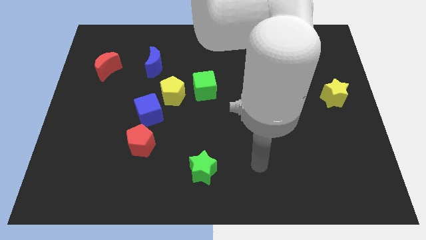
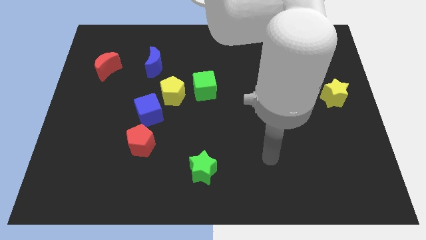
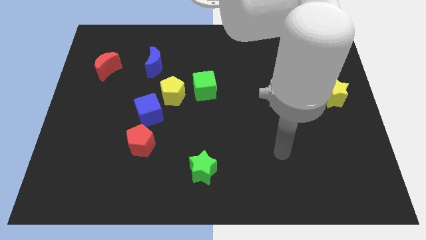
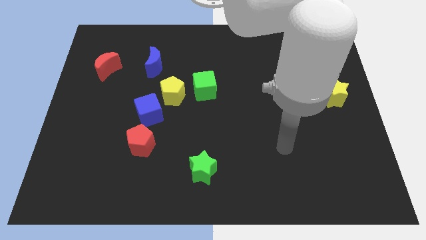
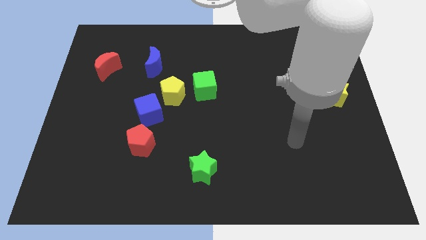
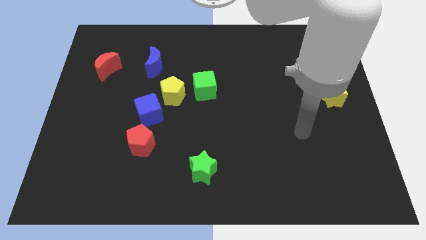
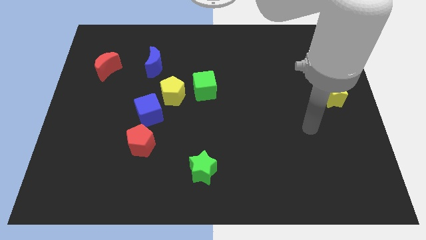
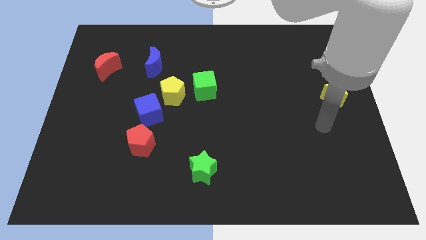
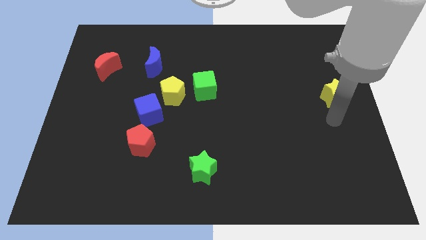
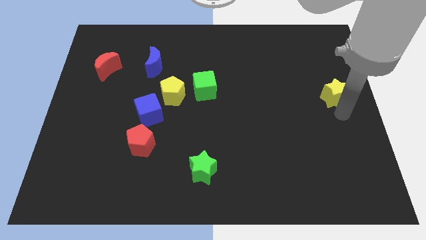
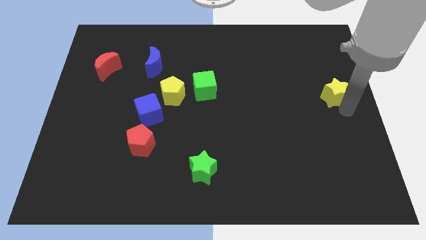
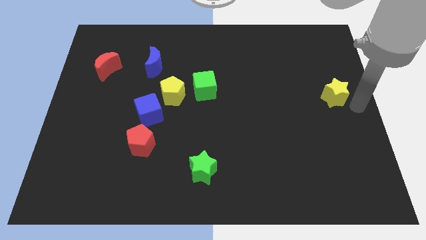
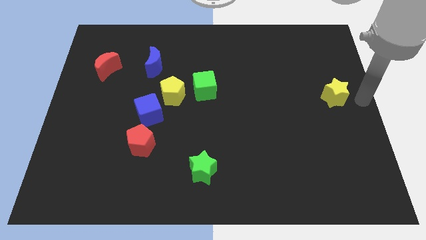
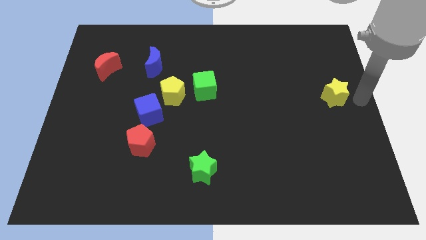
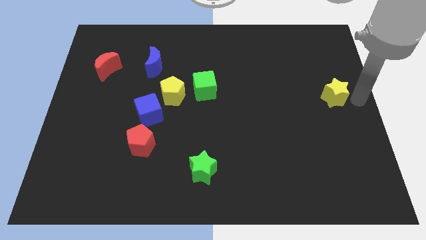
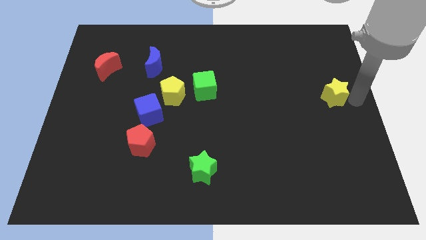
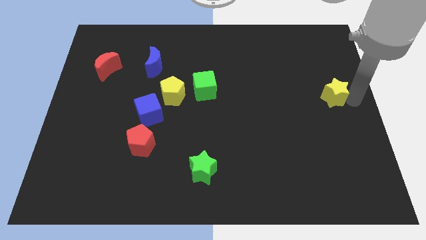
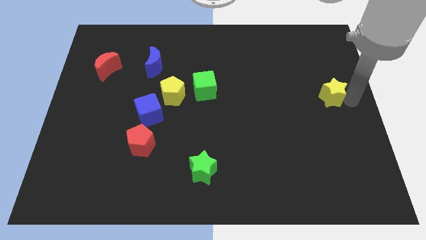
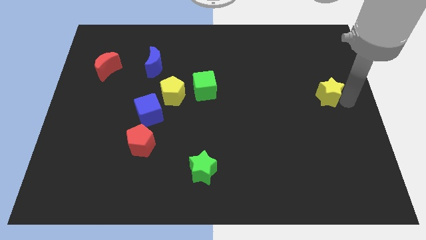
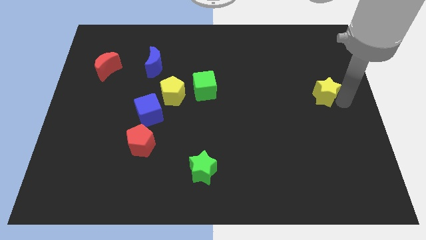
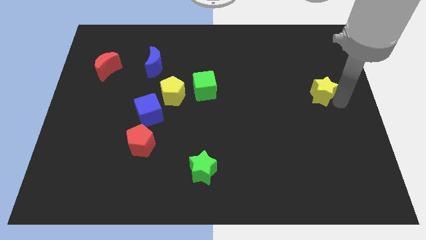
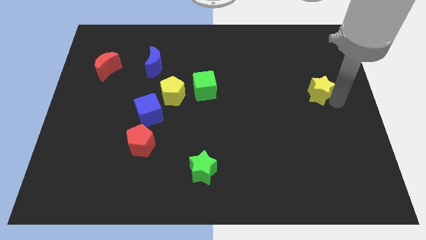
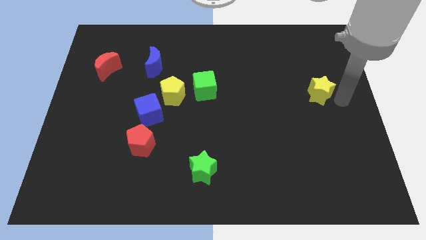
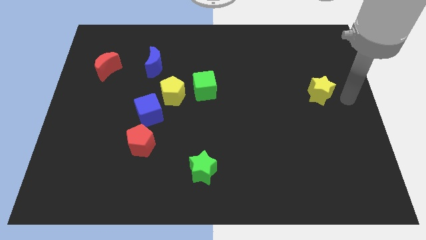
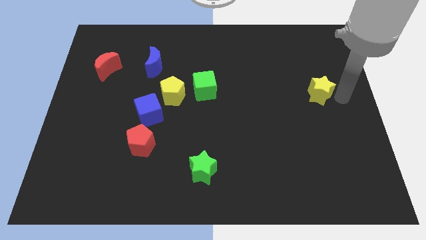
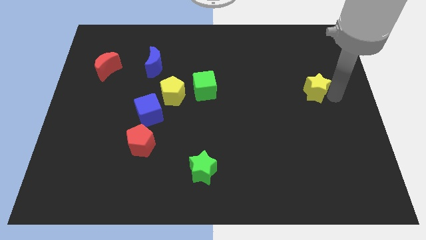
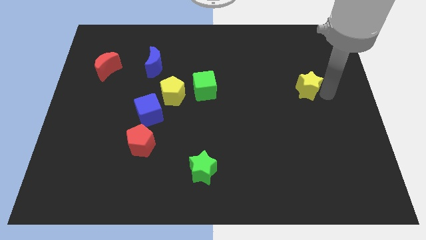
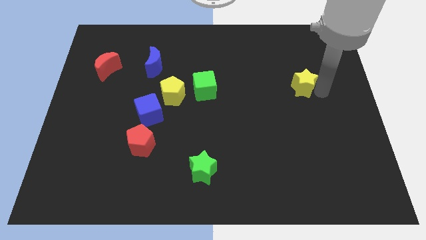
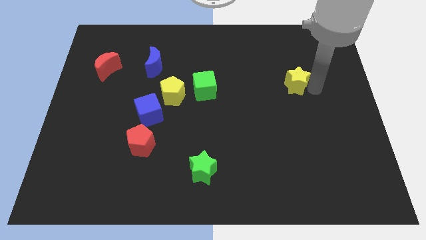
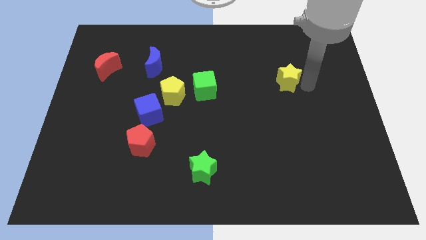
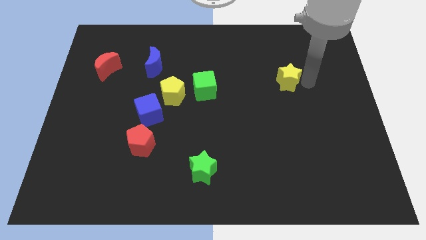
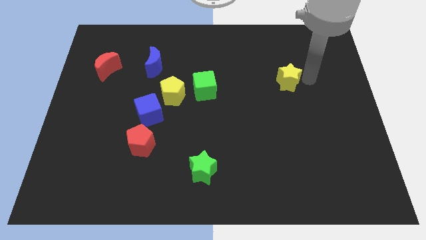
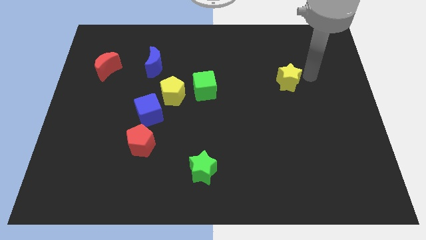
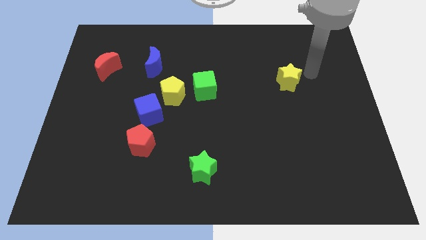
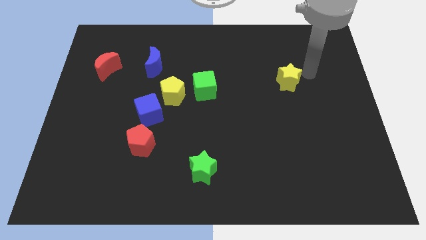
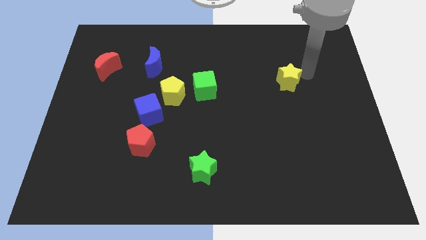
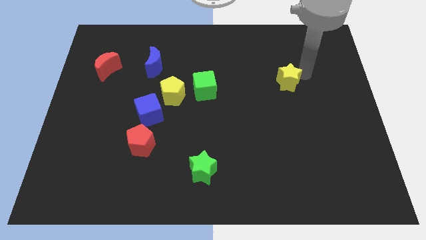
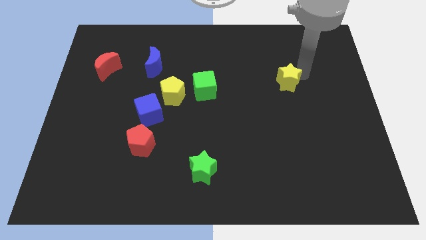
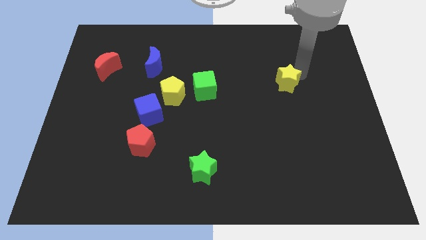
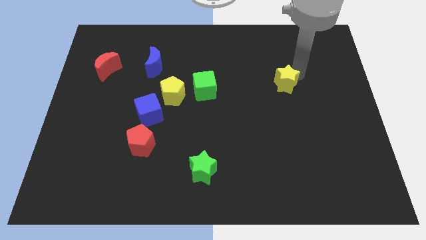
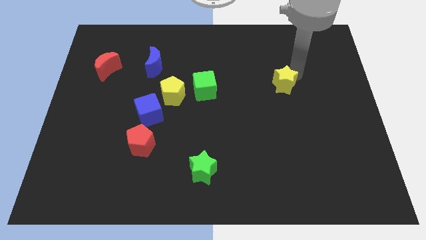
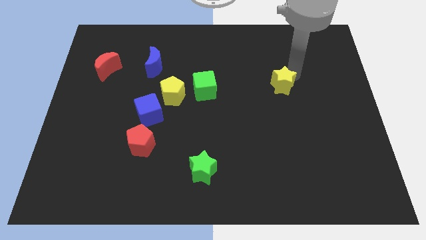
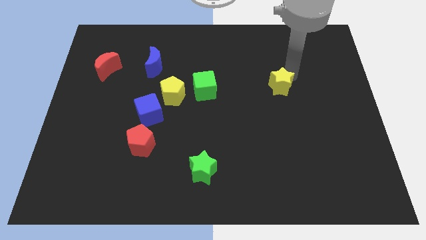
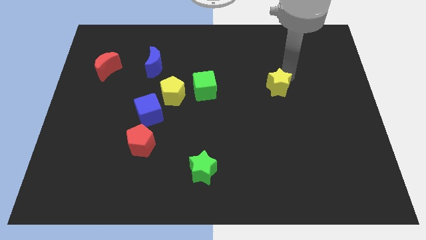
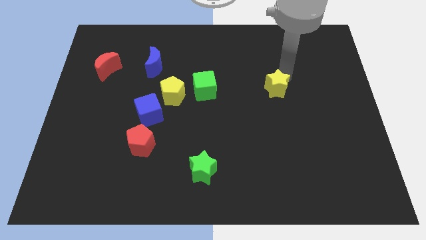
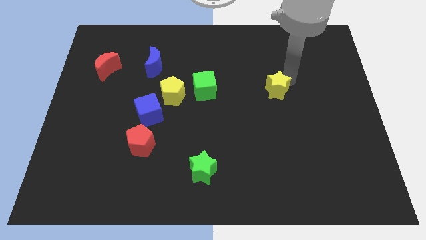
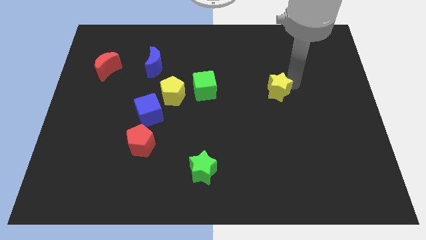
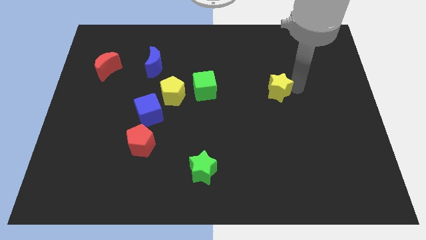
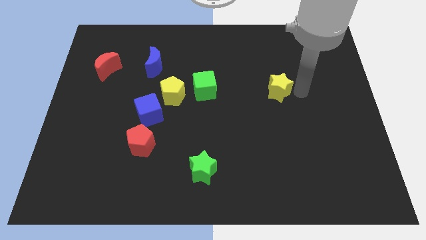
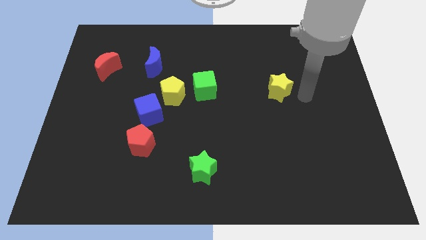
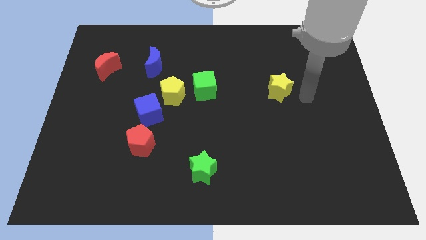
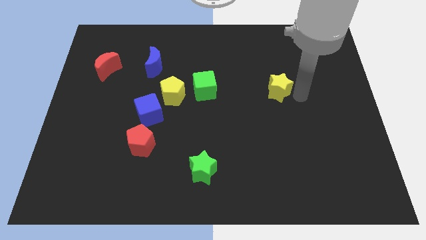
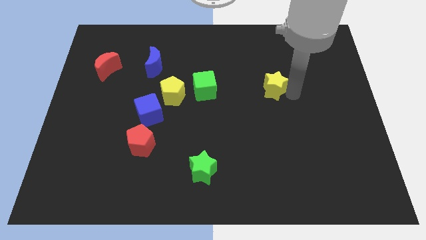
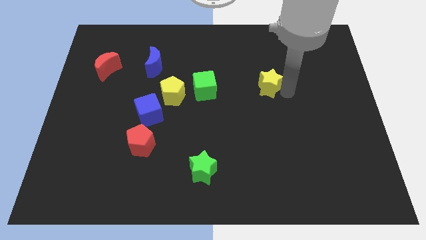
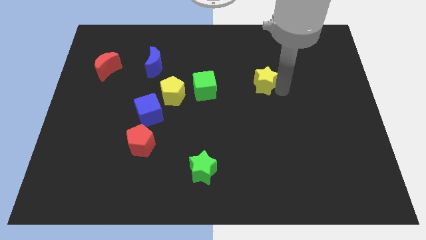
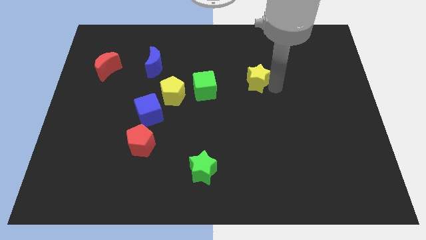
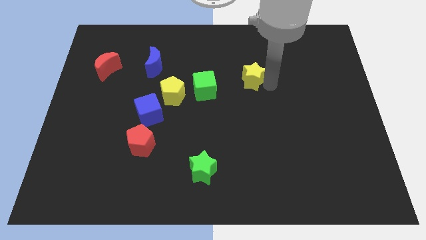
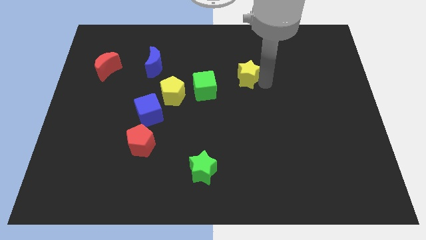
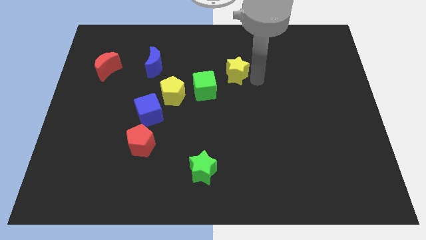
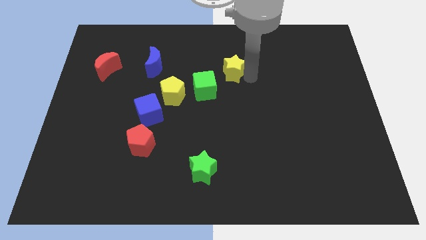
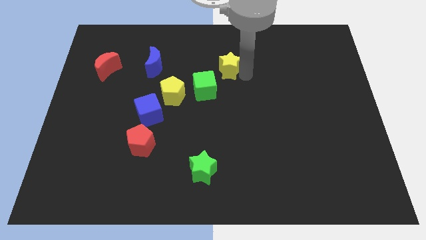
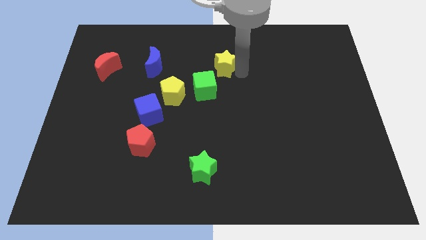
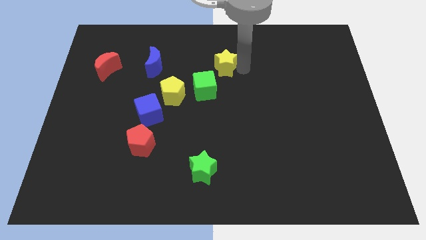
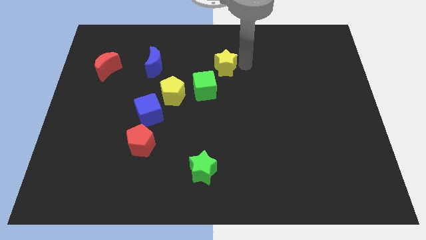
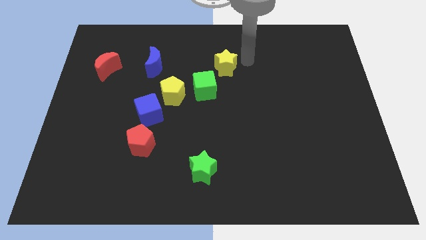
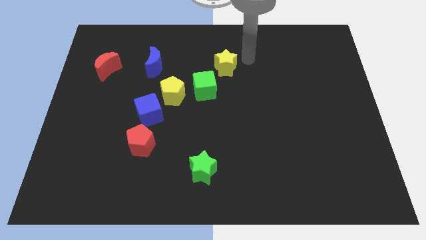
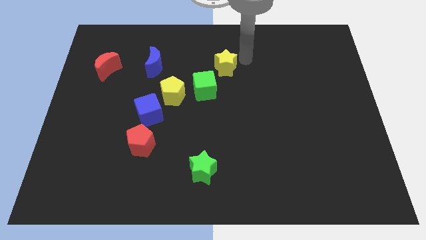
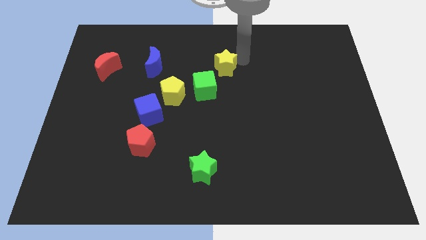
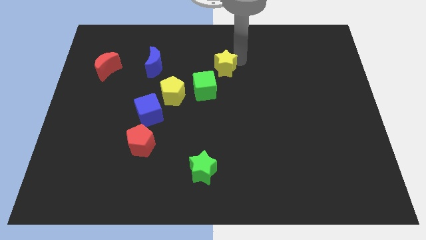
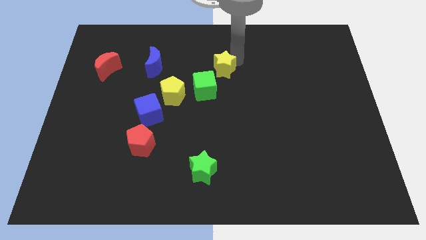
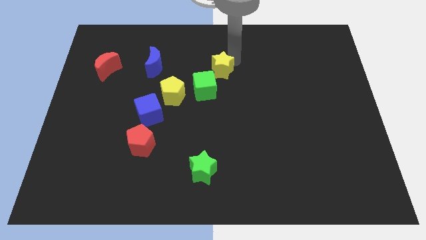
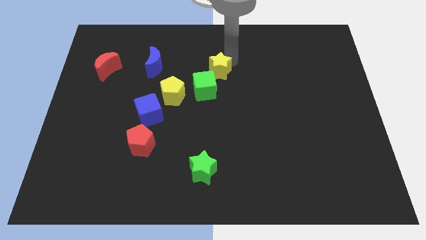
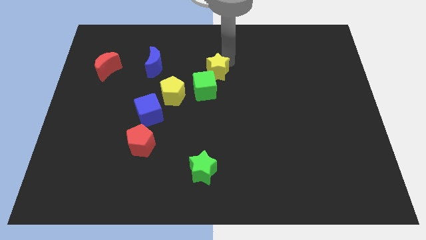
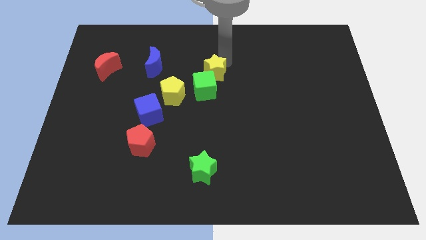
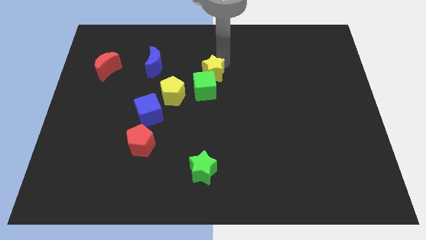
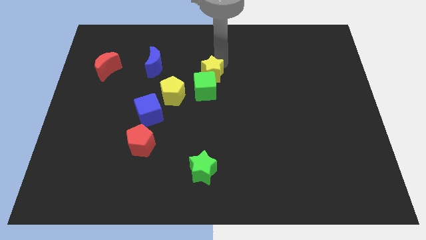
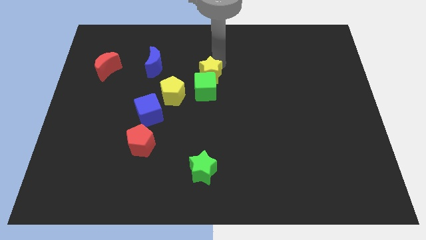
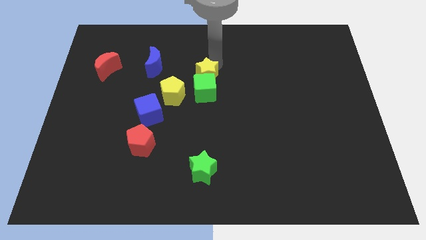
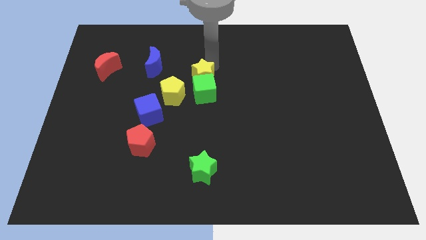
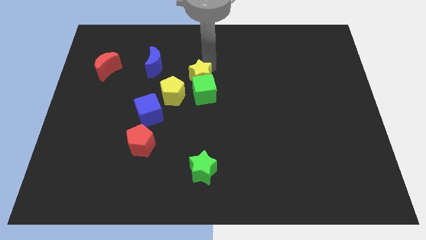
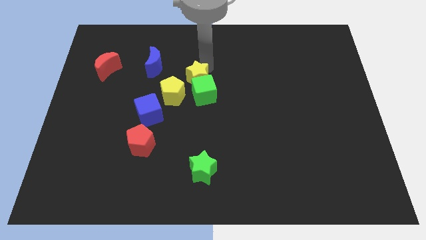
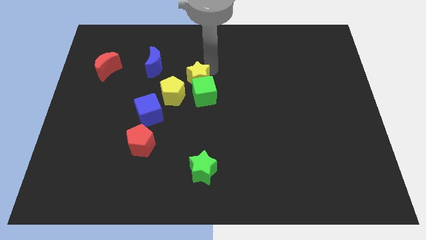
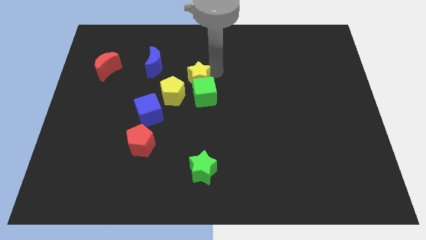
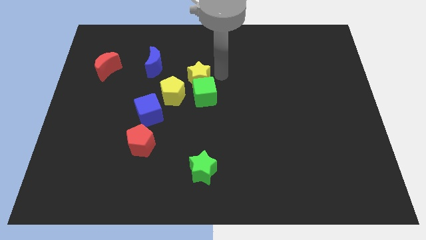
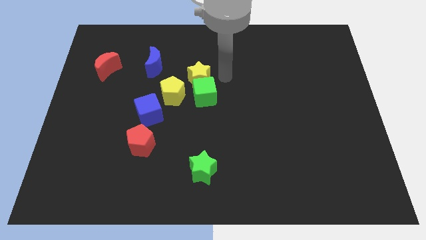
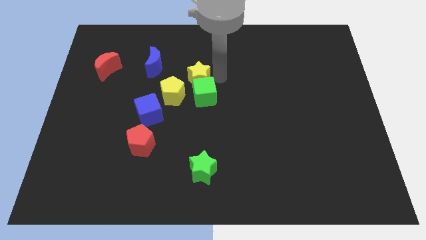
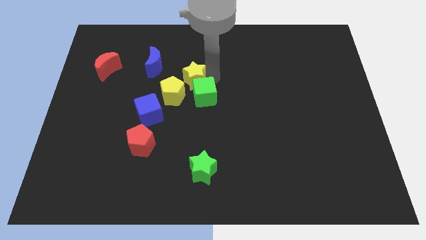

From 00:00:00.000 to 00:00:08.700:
put the yellow star to the bottom right of the blue moon
